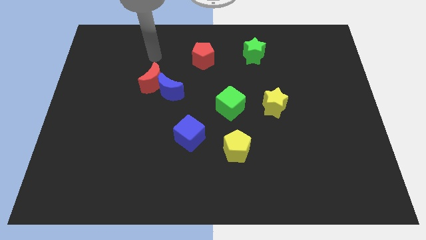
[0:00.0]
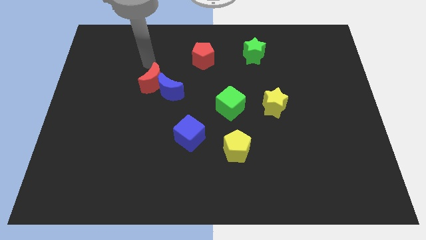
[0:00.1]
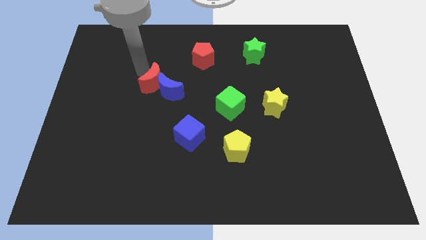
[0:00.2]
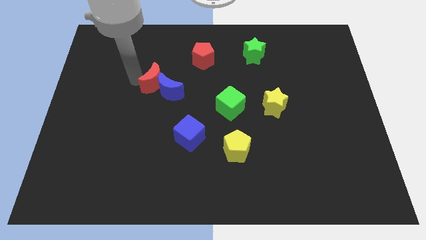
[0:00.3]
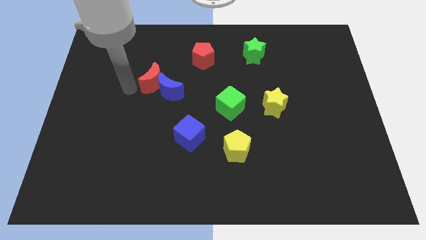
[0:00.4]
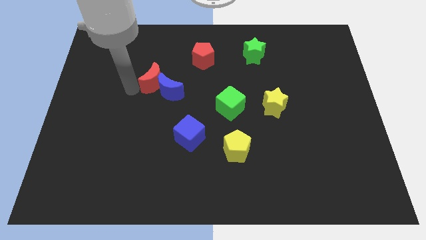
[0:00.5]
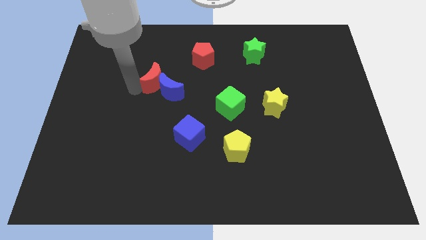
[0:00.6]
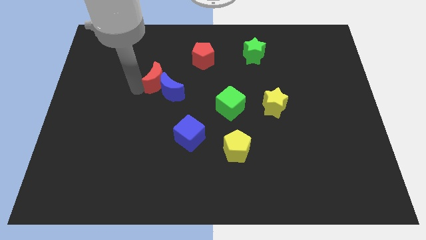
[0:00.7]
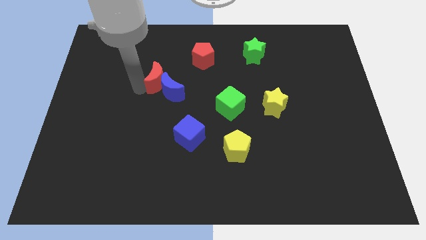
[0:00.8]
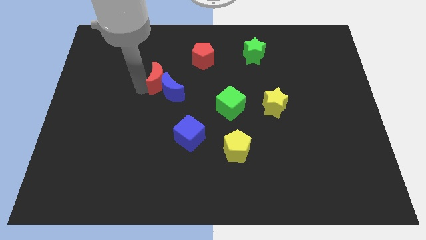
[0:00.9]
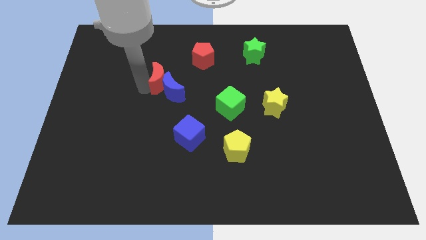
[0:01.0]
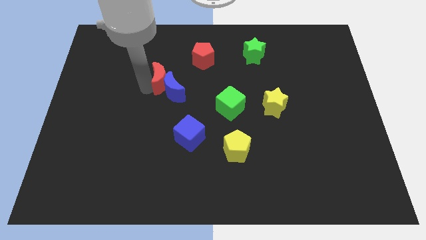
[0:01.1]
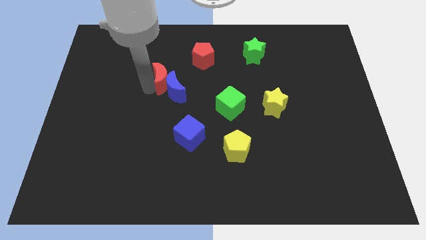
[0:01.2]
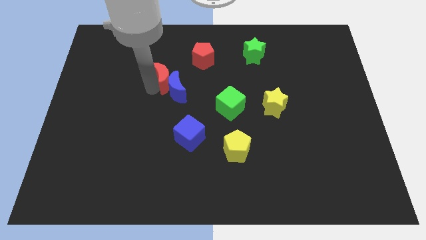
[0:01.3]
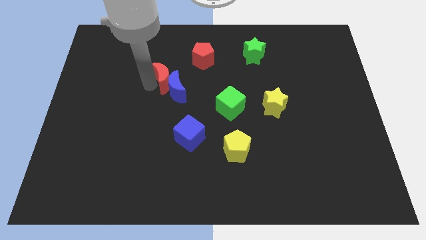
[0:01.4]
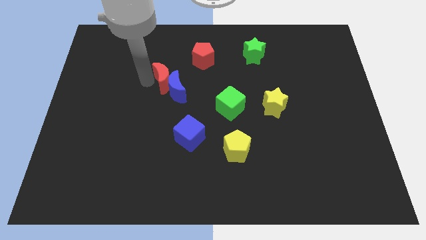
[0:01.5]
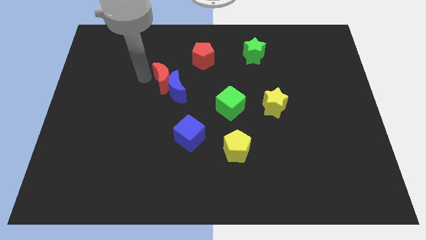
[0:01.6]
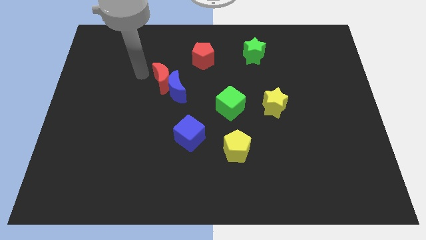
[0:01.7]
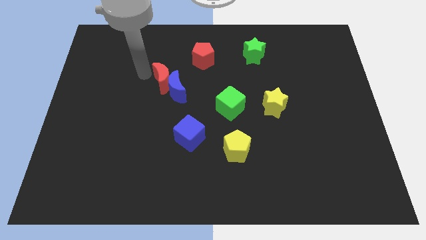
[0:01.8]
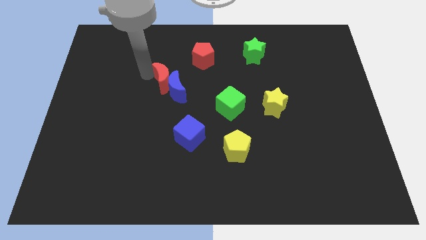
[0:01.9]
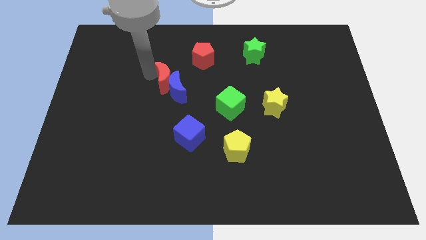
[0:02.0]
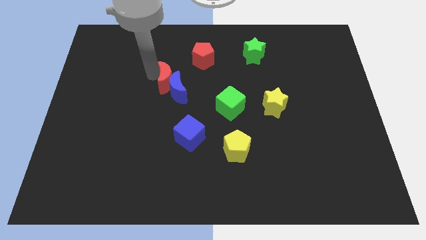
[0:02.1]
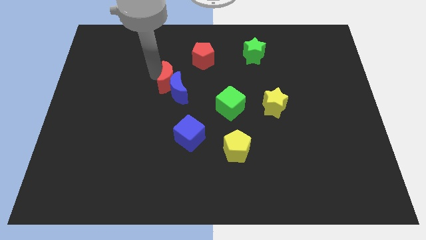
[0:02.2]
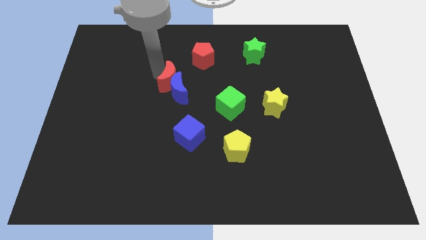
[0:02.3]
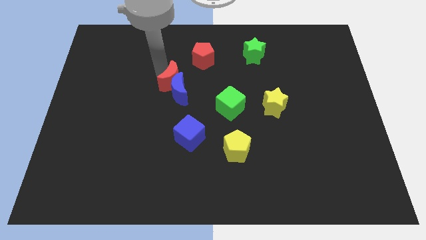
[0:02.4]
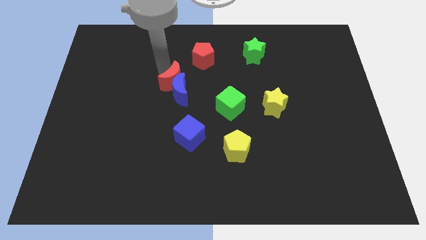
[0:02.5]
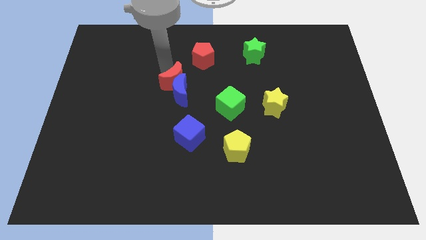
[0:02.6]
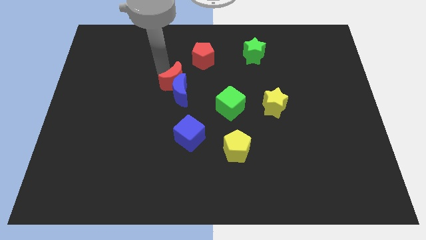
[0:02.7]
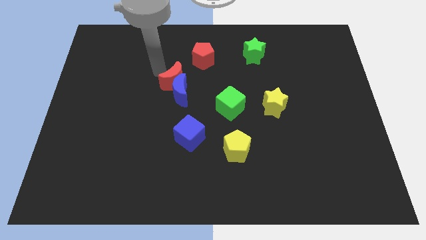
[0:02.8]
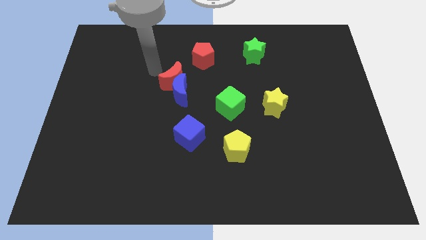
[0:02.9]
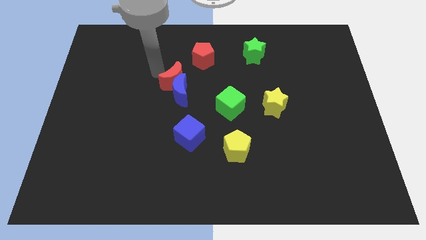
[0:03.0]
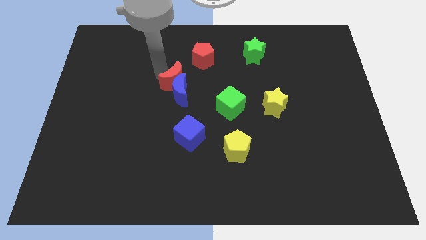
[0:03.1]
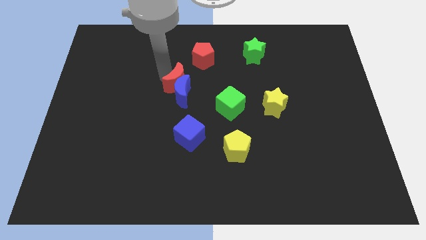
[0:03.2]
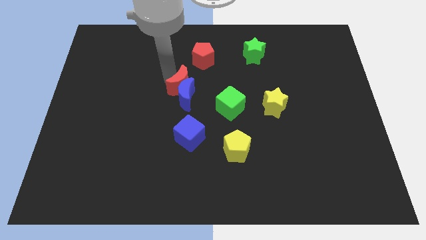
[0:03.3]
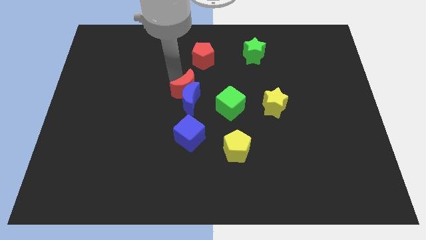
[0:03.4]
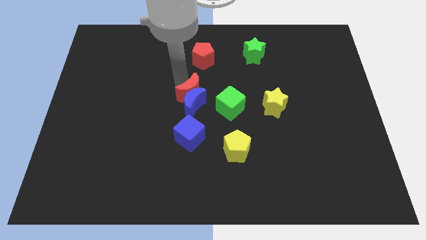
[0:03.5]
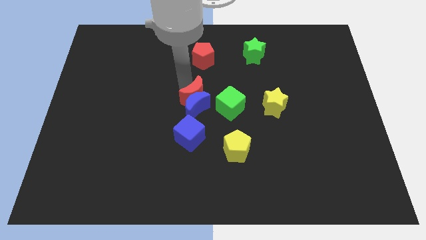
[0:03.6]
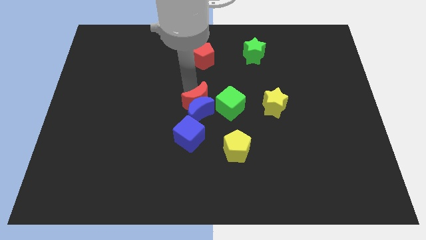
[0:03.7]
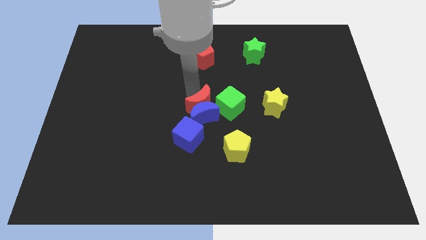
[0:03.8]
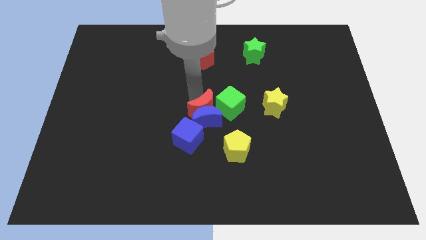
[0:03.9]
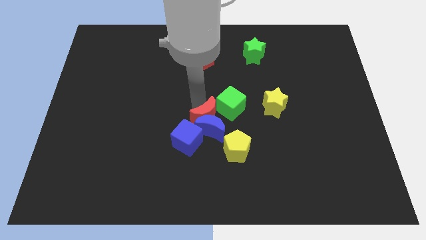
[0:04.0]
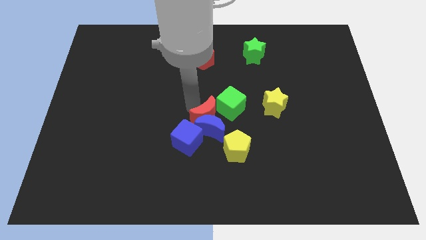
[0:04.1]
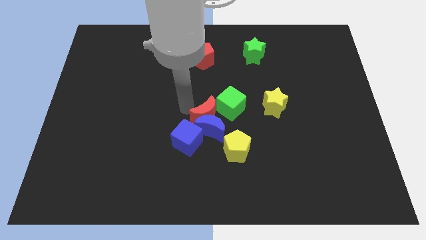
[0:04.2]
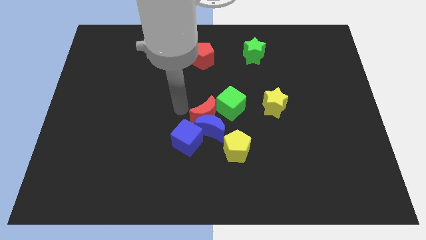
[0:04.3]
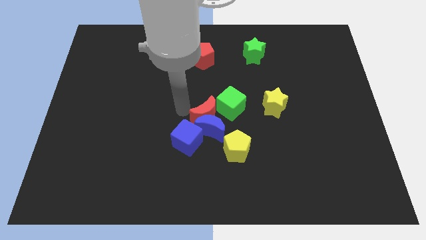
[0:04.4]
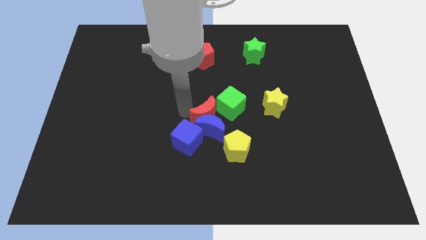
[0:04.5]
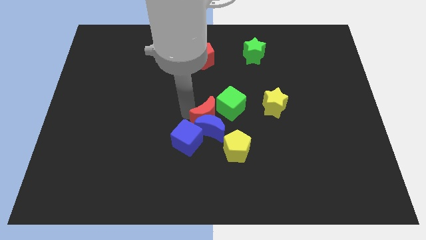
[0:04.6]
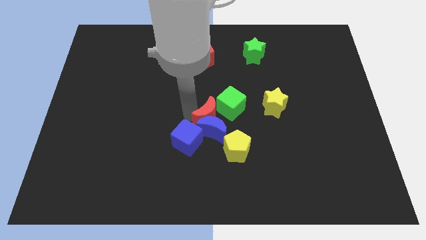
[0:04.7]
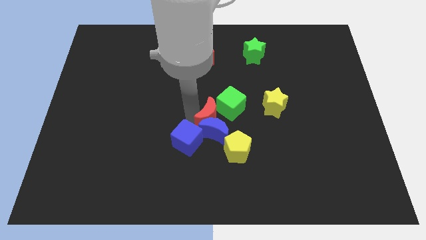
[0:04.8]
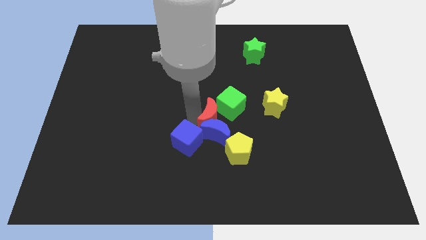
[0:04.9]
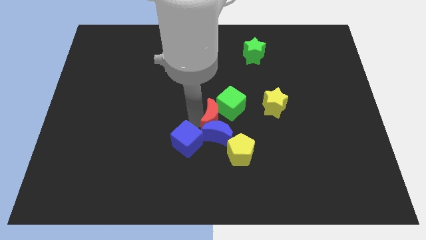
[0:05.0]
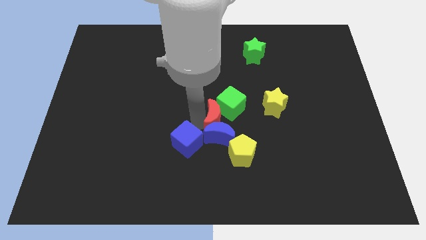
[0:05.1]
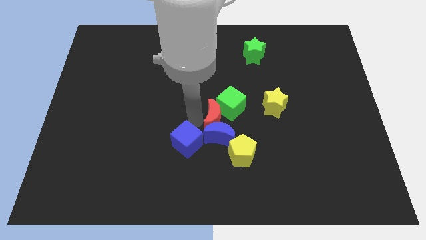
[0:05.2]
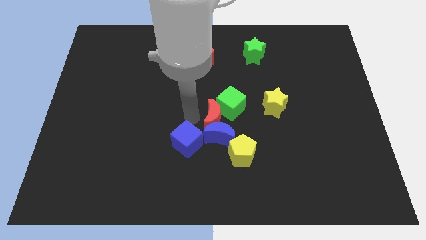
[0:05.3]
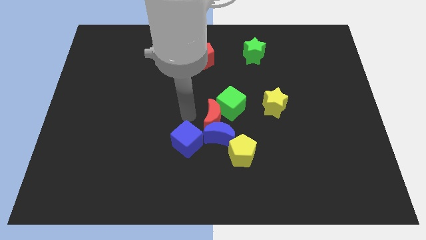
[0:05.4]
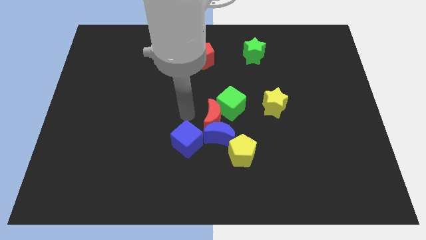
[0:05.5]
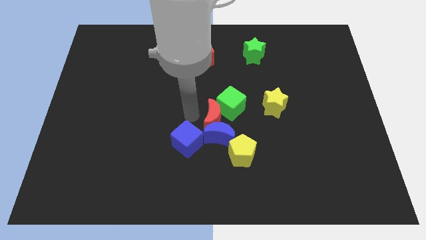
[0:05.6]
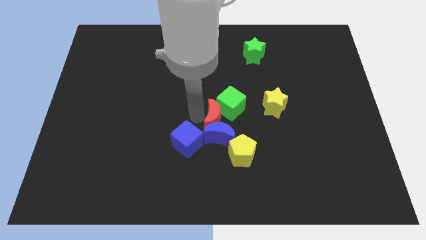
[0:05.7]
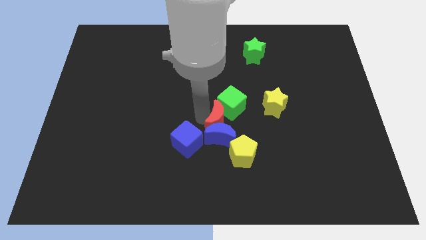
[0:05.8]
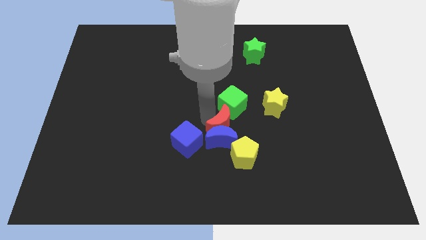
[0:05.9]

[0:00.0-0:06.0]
move the red moon diagonally down and to the right

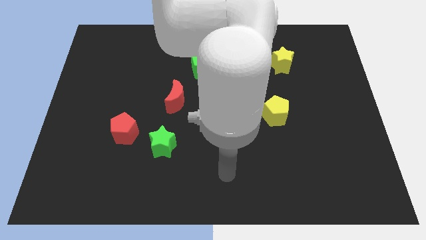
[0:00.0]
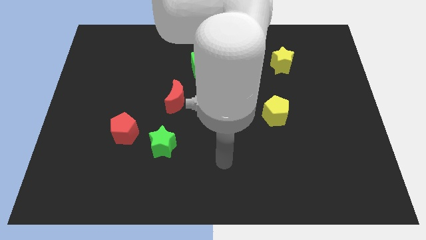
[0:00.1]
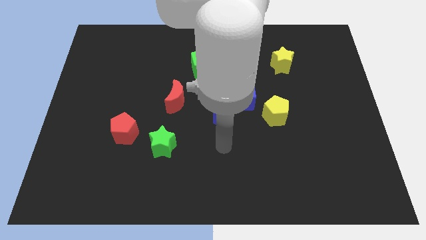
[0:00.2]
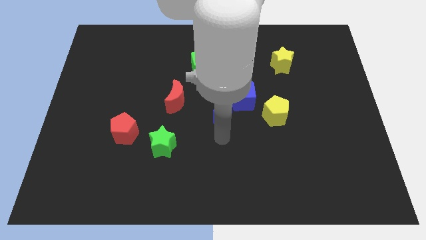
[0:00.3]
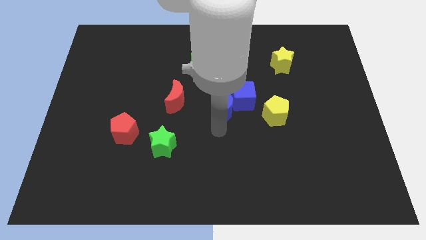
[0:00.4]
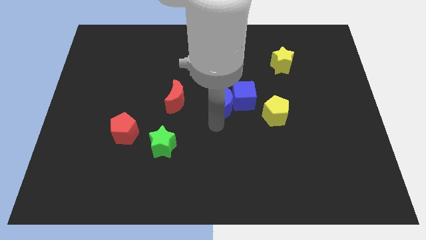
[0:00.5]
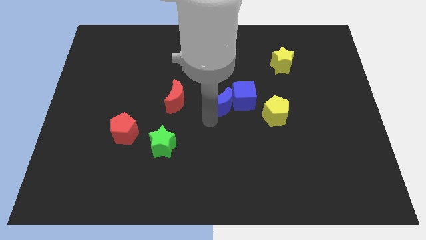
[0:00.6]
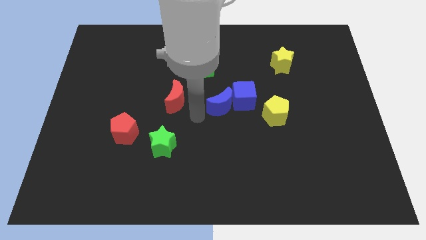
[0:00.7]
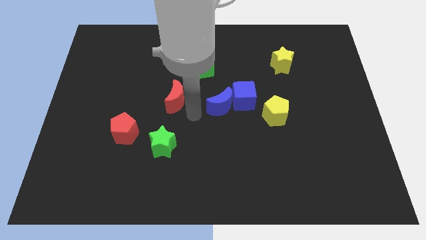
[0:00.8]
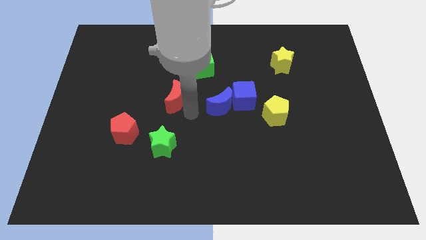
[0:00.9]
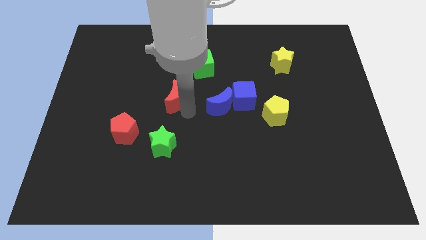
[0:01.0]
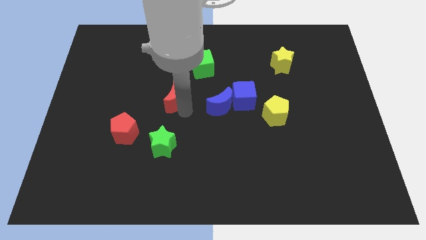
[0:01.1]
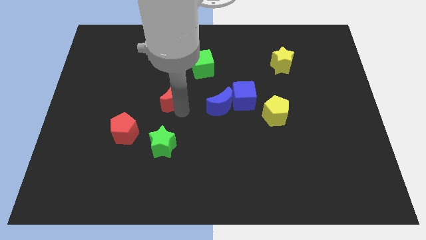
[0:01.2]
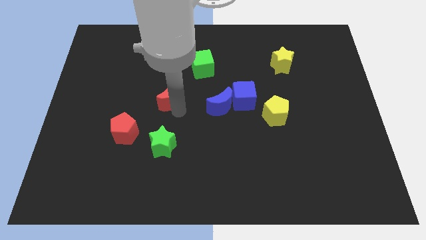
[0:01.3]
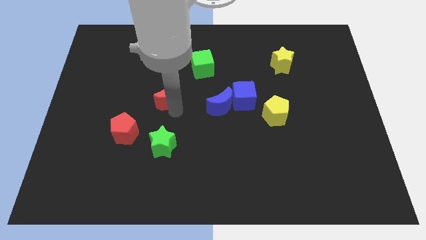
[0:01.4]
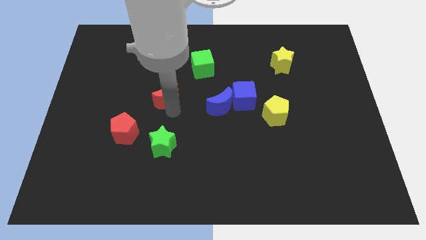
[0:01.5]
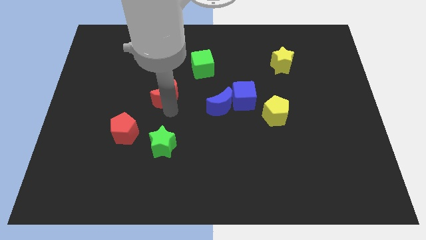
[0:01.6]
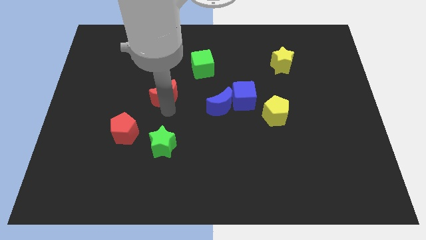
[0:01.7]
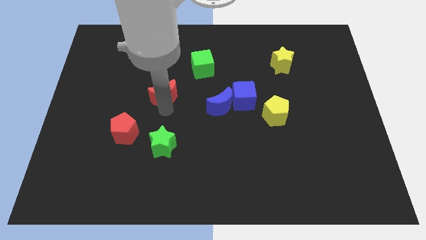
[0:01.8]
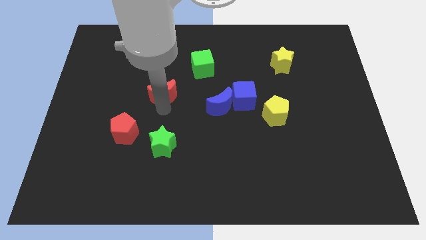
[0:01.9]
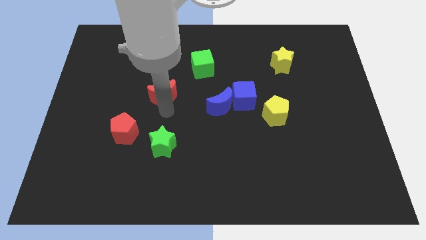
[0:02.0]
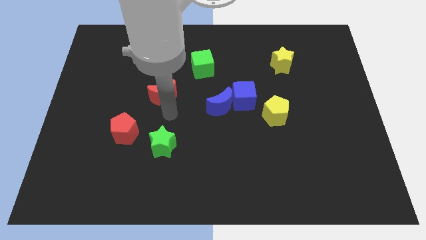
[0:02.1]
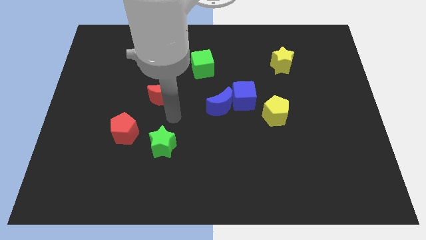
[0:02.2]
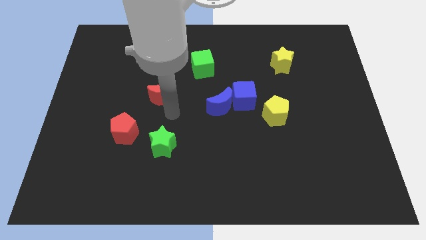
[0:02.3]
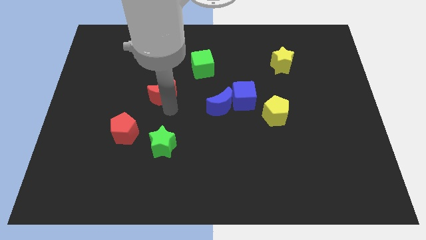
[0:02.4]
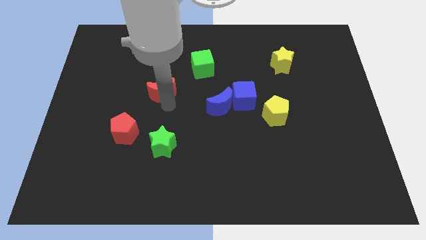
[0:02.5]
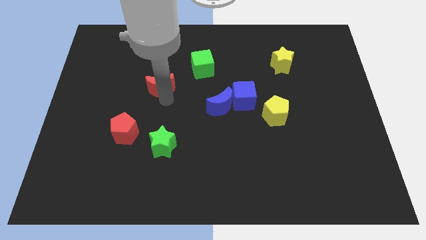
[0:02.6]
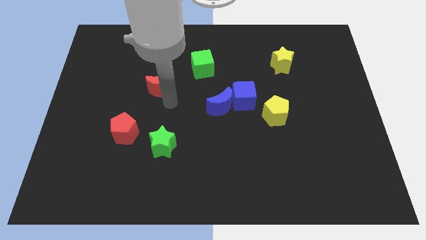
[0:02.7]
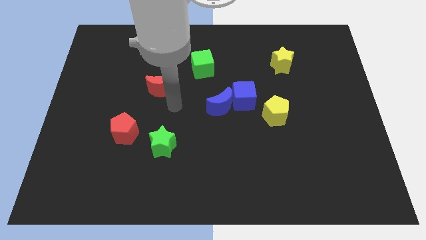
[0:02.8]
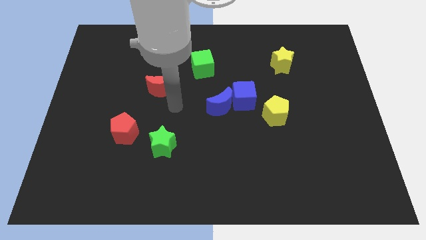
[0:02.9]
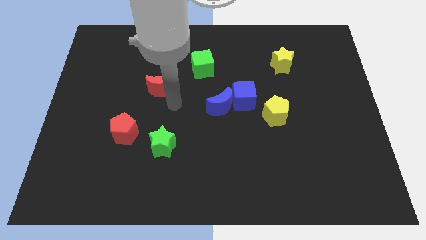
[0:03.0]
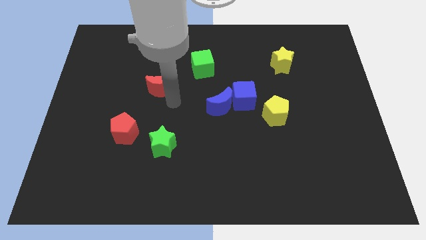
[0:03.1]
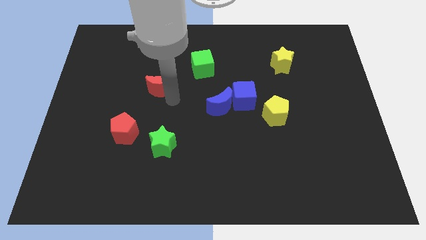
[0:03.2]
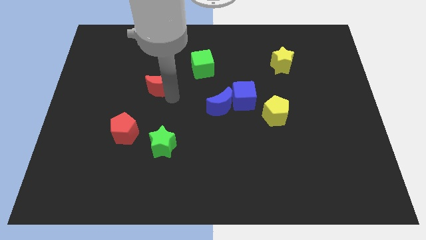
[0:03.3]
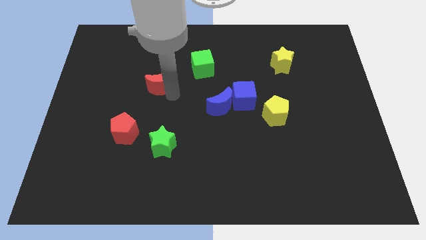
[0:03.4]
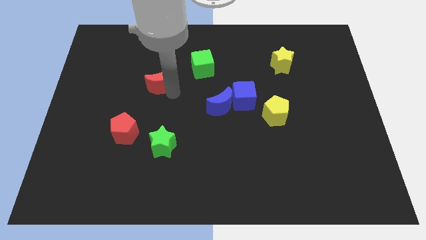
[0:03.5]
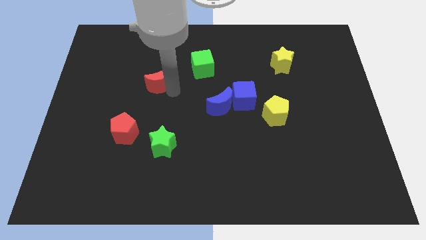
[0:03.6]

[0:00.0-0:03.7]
slightly slide the red moon diagonally upwards and to the left
